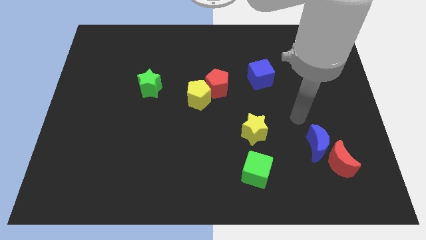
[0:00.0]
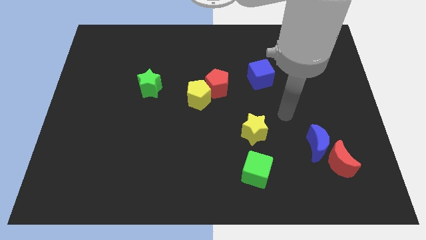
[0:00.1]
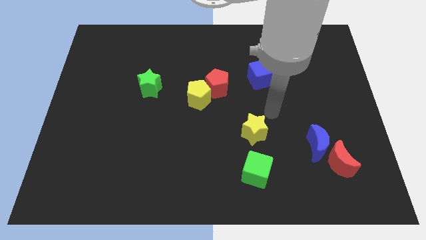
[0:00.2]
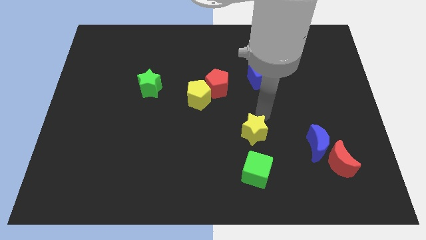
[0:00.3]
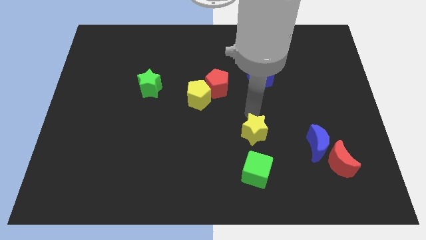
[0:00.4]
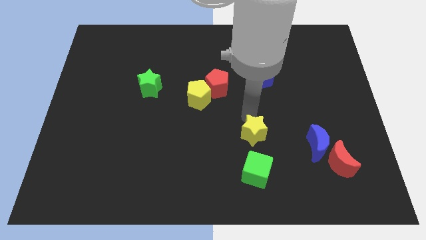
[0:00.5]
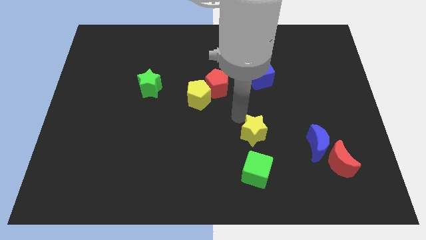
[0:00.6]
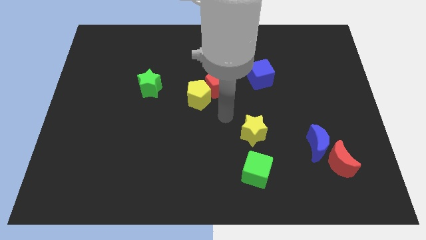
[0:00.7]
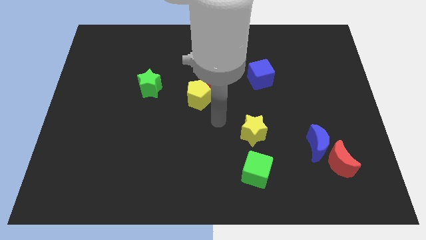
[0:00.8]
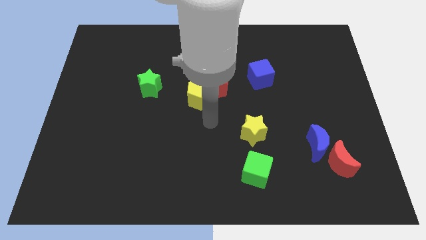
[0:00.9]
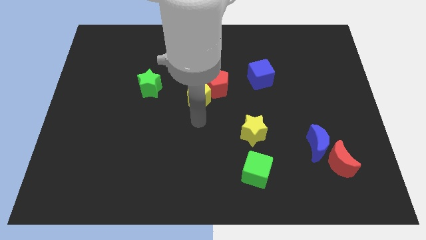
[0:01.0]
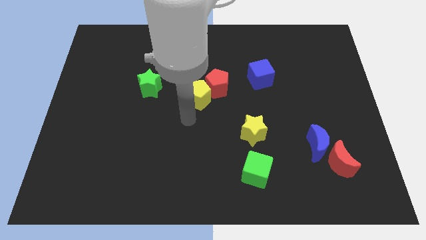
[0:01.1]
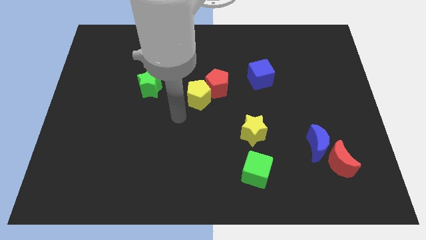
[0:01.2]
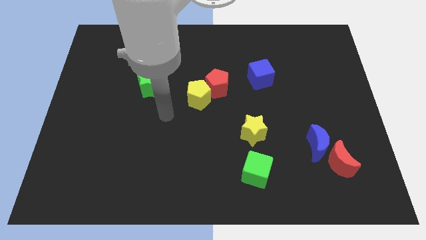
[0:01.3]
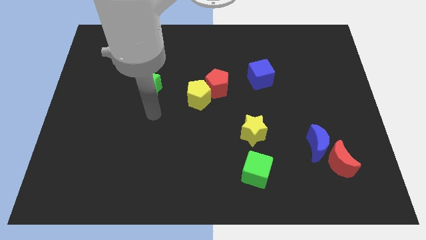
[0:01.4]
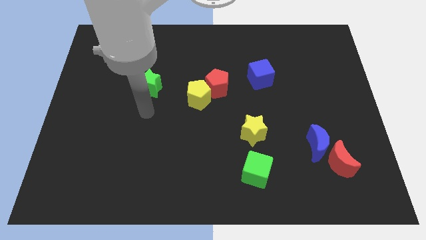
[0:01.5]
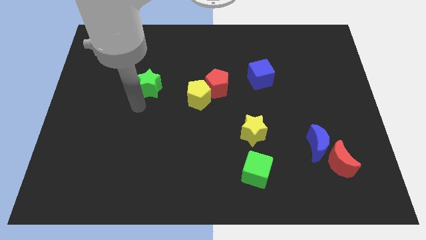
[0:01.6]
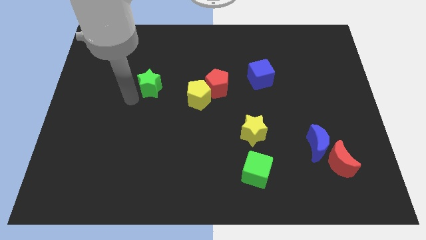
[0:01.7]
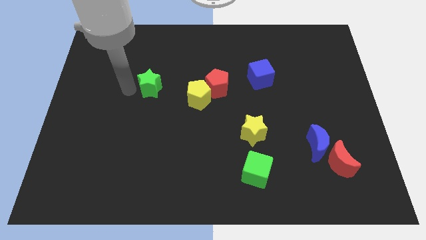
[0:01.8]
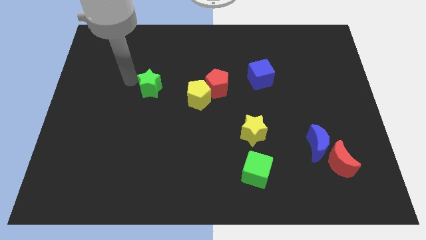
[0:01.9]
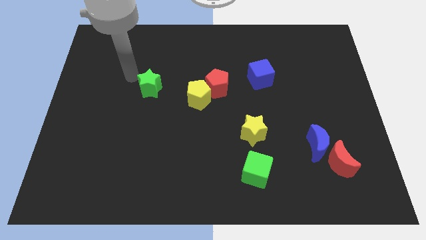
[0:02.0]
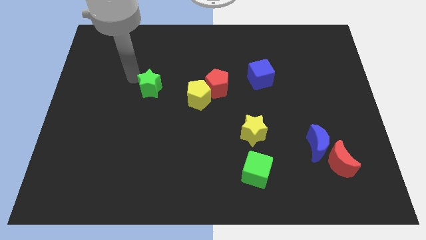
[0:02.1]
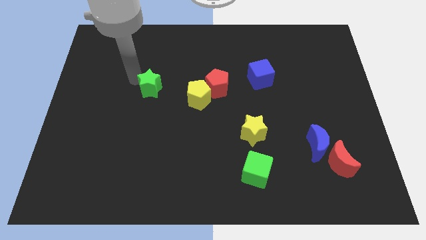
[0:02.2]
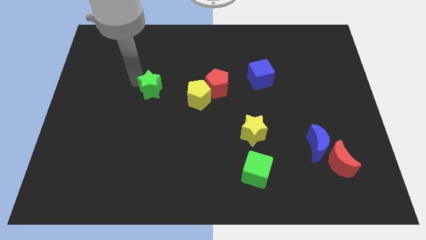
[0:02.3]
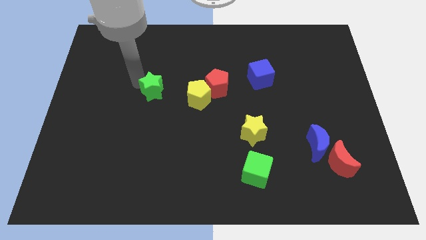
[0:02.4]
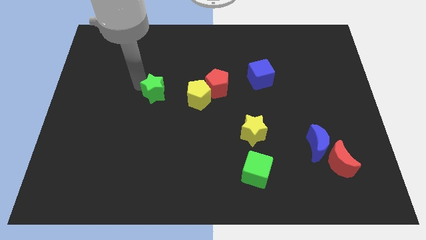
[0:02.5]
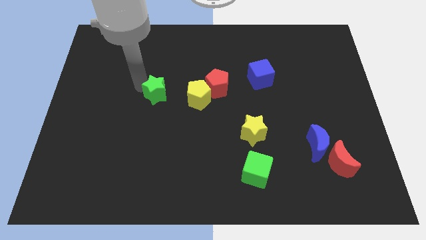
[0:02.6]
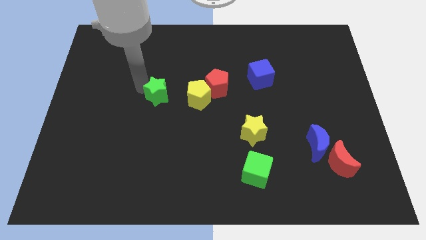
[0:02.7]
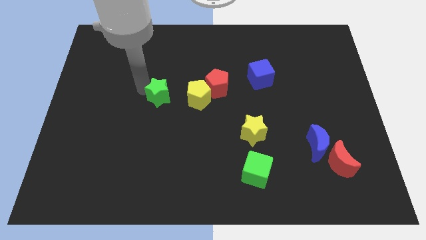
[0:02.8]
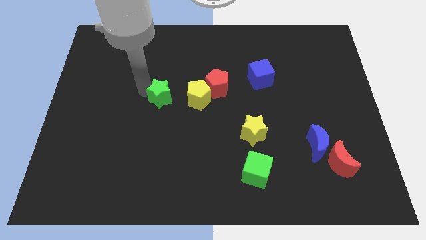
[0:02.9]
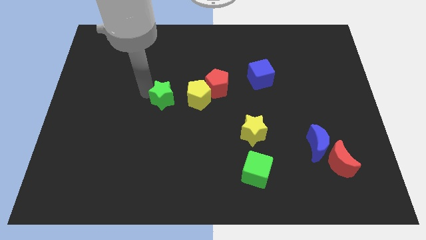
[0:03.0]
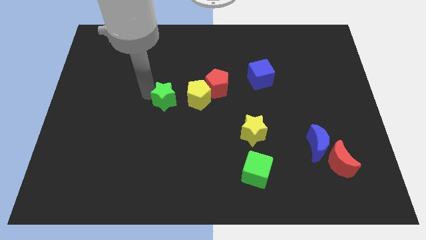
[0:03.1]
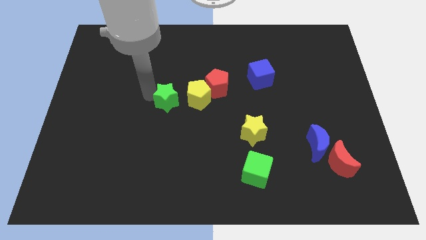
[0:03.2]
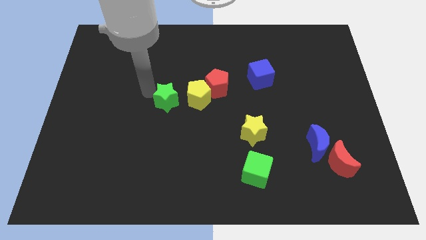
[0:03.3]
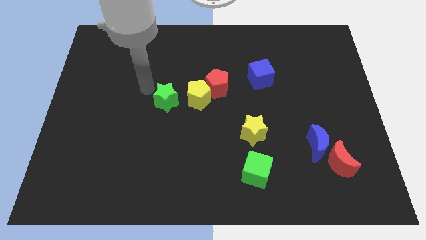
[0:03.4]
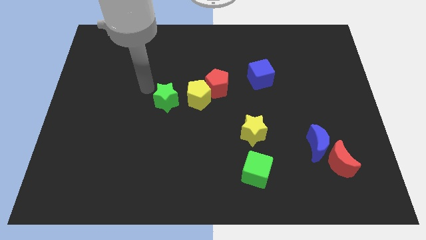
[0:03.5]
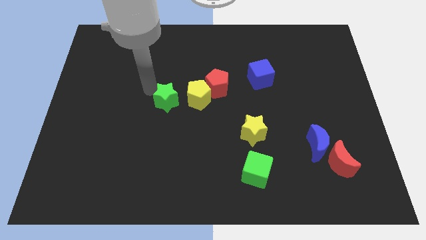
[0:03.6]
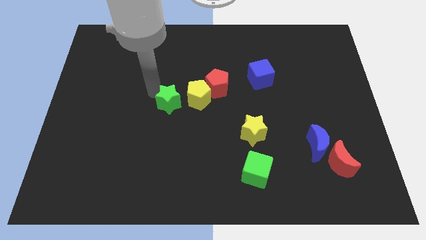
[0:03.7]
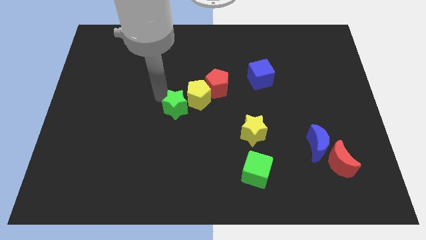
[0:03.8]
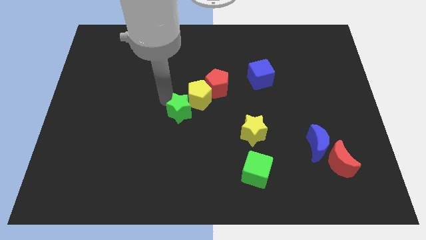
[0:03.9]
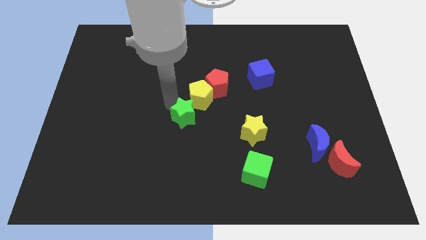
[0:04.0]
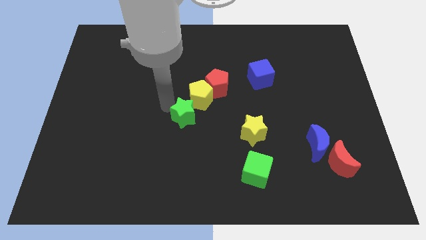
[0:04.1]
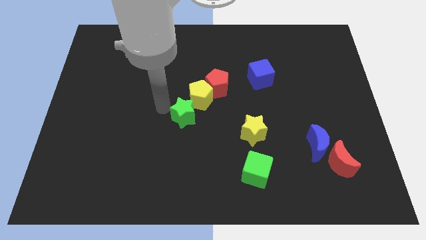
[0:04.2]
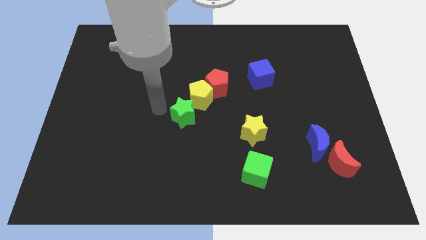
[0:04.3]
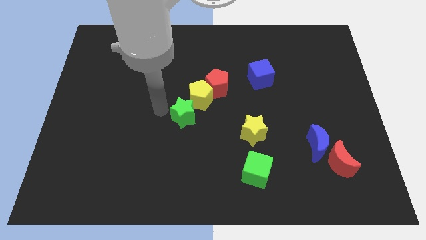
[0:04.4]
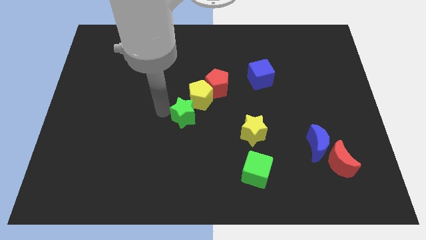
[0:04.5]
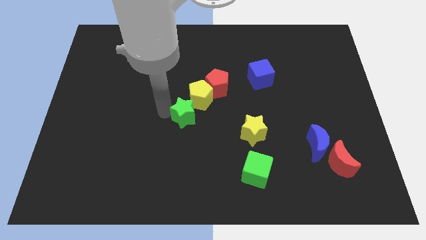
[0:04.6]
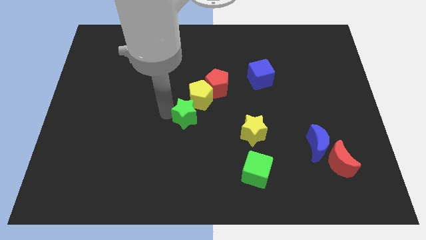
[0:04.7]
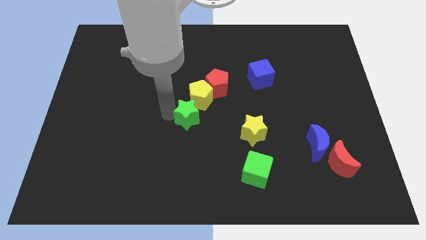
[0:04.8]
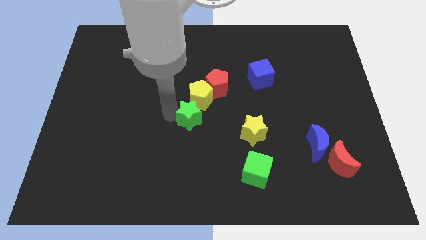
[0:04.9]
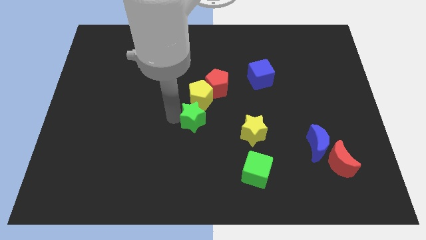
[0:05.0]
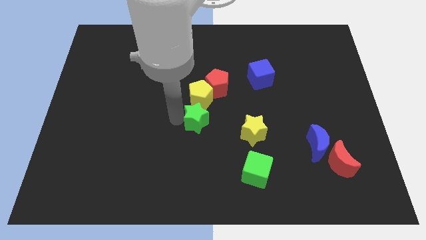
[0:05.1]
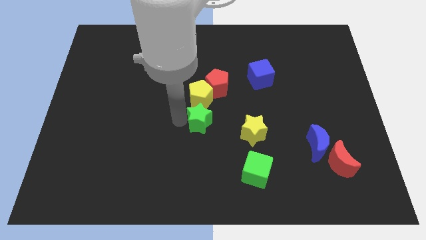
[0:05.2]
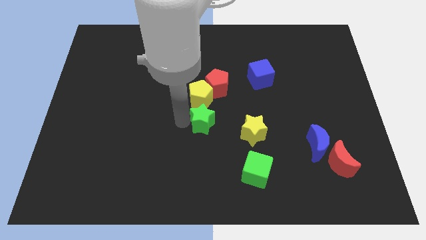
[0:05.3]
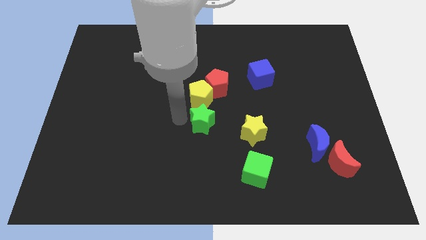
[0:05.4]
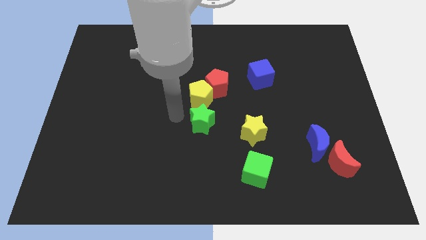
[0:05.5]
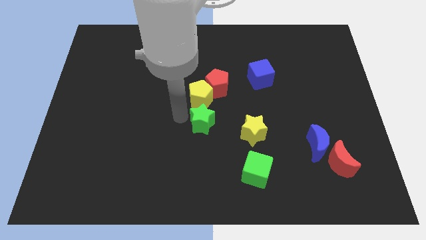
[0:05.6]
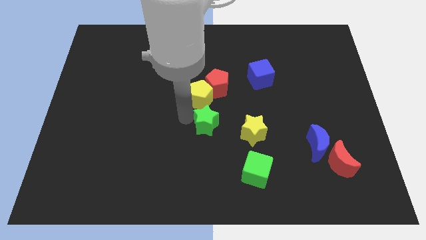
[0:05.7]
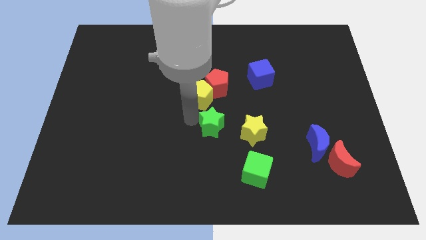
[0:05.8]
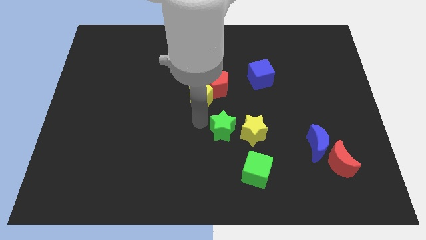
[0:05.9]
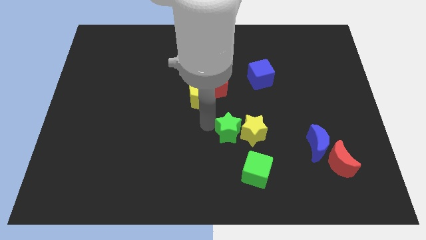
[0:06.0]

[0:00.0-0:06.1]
move the green star towards the yellow star
